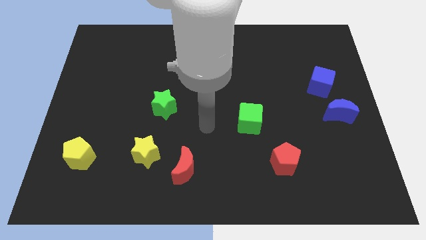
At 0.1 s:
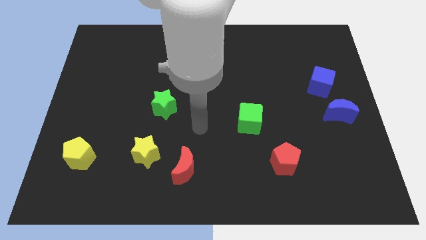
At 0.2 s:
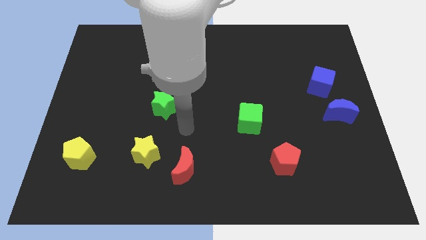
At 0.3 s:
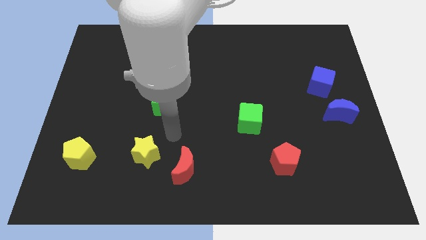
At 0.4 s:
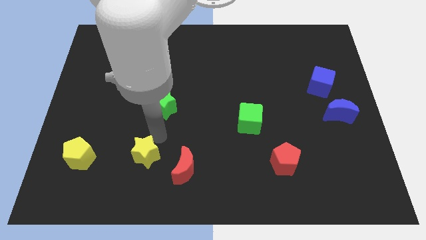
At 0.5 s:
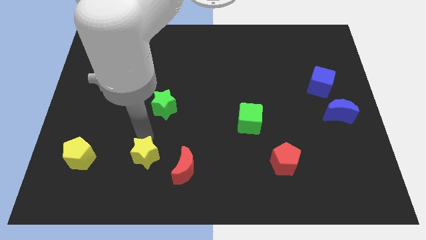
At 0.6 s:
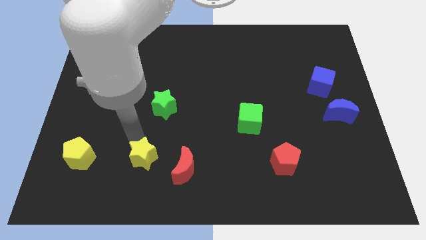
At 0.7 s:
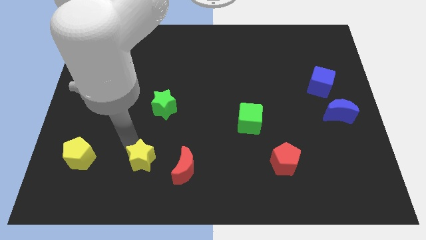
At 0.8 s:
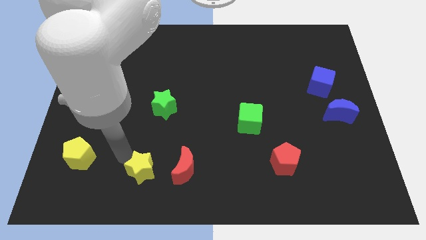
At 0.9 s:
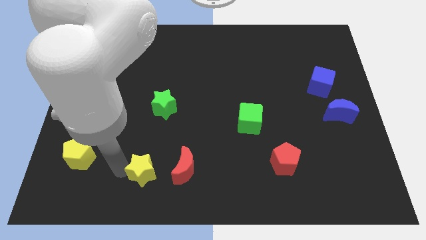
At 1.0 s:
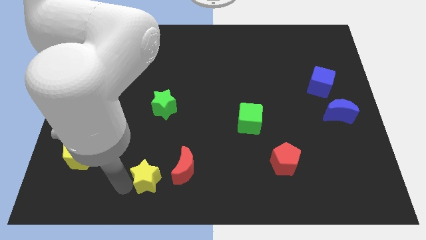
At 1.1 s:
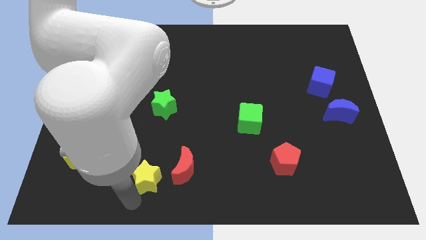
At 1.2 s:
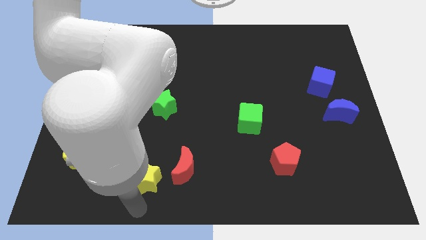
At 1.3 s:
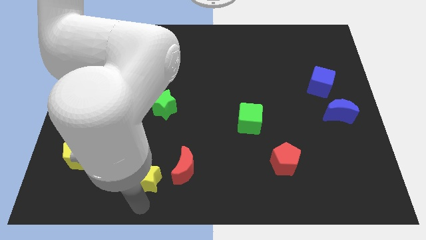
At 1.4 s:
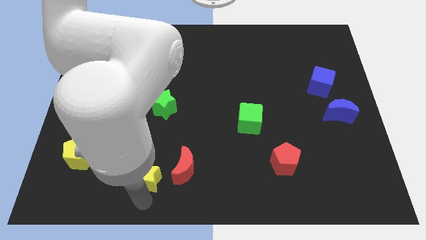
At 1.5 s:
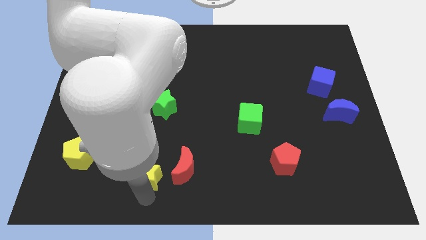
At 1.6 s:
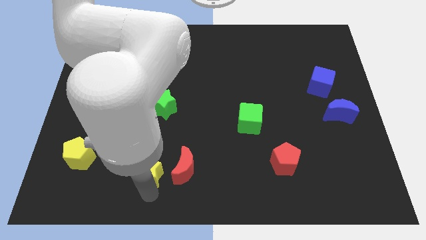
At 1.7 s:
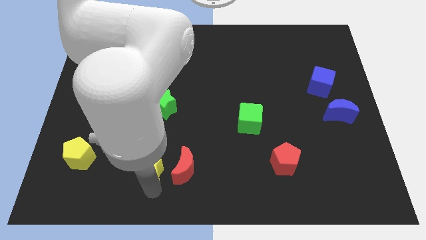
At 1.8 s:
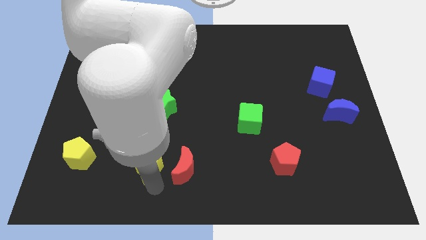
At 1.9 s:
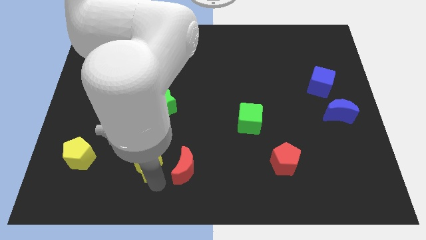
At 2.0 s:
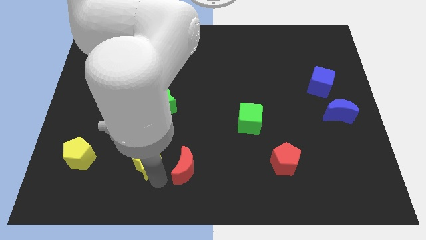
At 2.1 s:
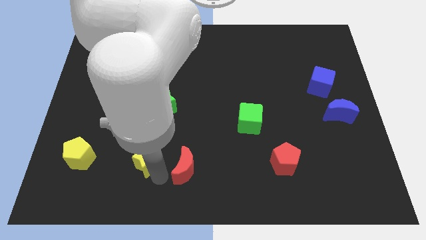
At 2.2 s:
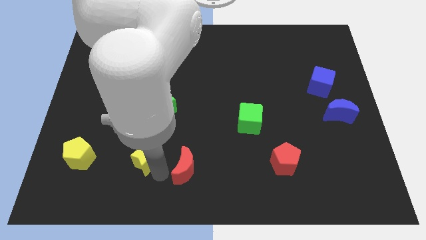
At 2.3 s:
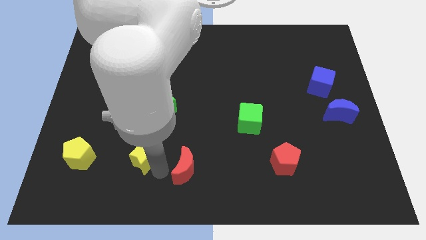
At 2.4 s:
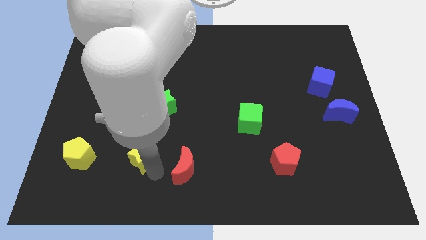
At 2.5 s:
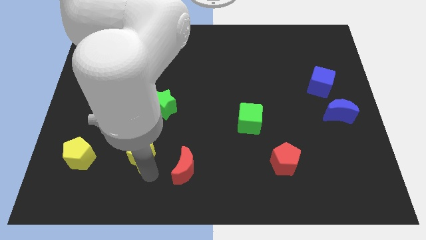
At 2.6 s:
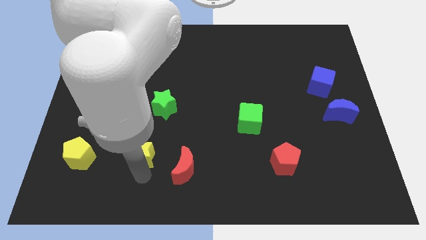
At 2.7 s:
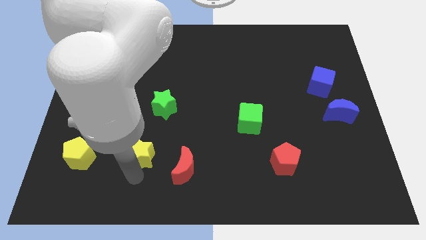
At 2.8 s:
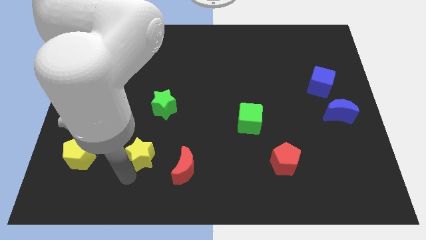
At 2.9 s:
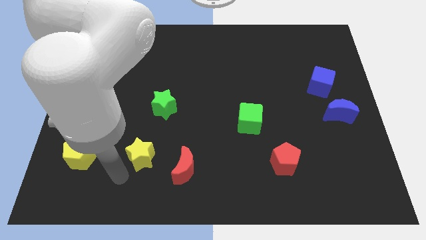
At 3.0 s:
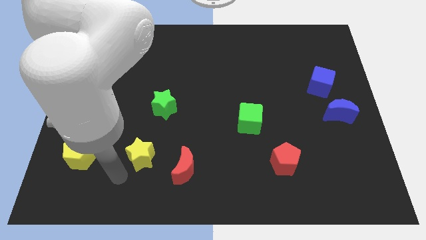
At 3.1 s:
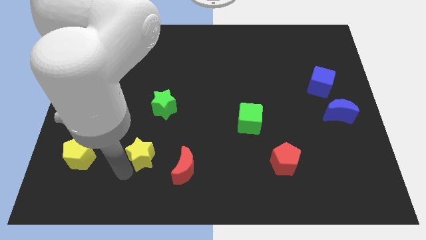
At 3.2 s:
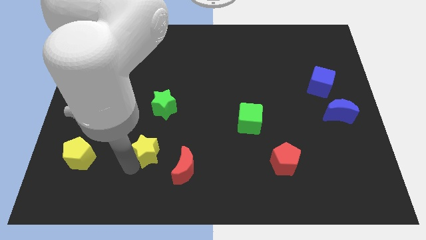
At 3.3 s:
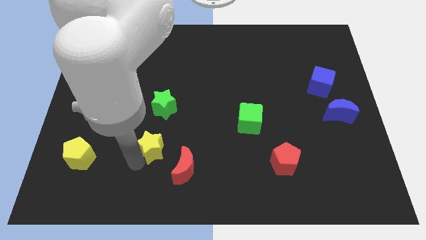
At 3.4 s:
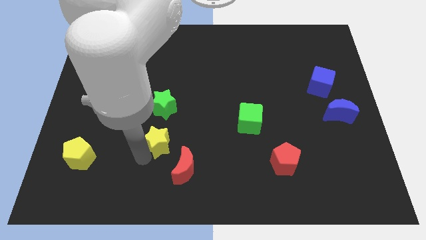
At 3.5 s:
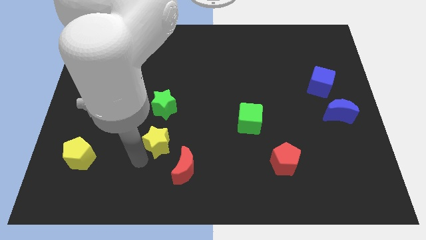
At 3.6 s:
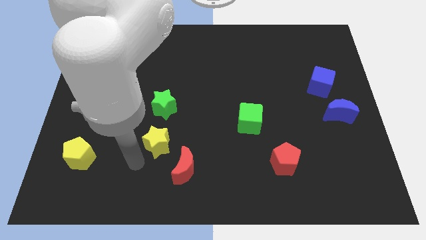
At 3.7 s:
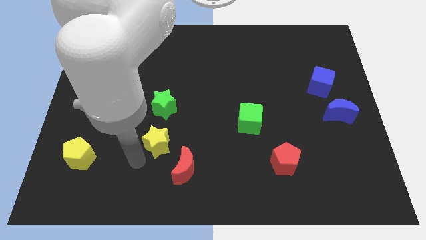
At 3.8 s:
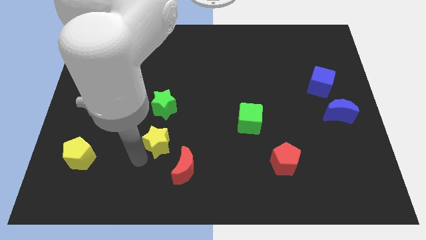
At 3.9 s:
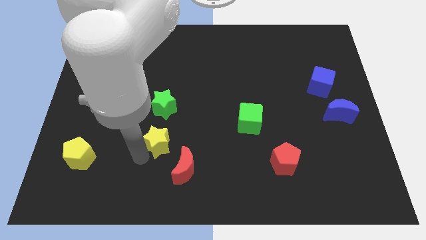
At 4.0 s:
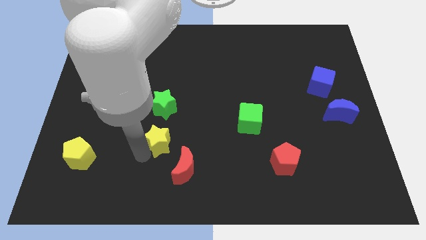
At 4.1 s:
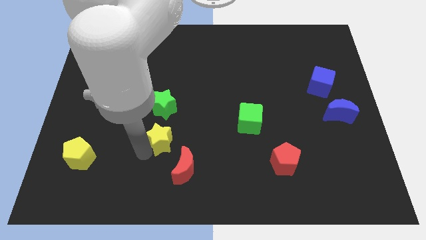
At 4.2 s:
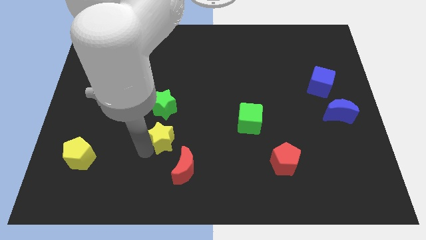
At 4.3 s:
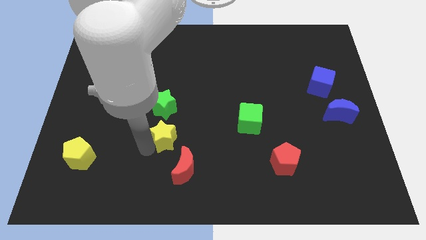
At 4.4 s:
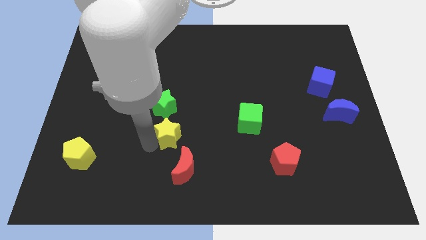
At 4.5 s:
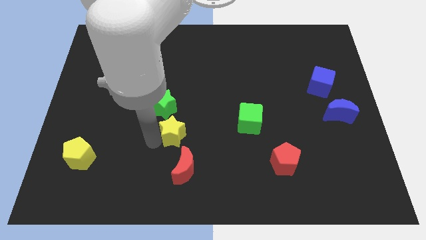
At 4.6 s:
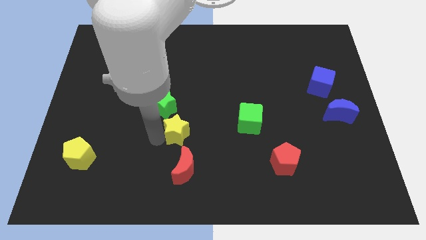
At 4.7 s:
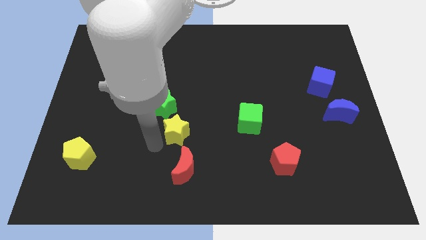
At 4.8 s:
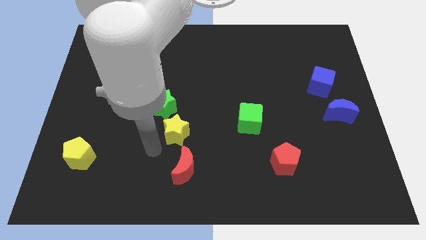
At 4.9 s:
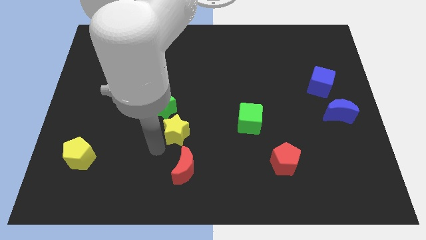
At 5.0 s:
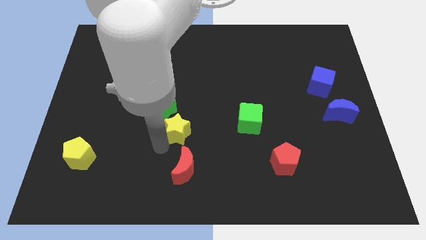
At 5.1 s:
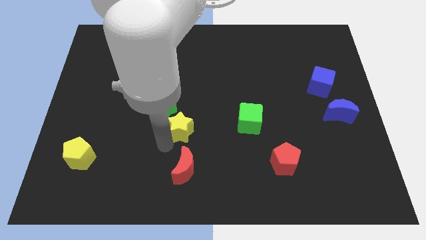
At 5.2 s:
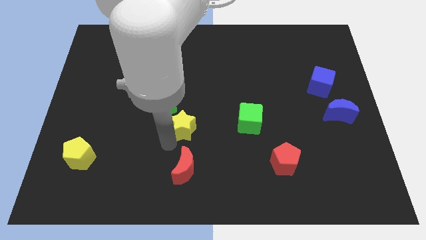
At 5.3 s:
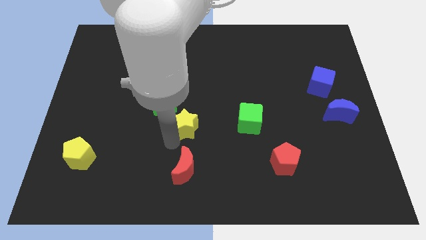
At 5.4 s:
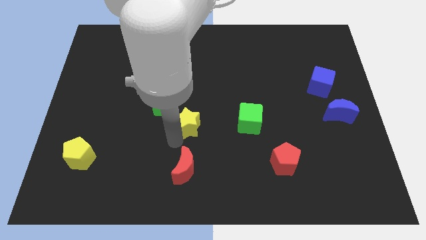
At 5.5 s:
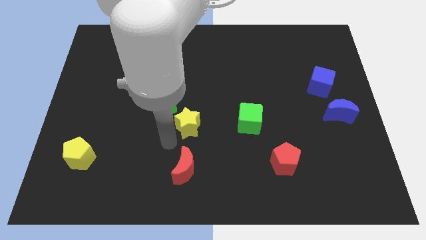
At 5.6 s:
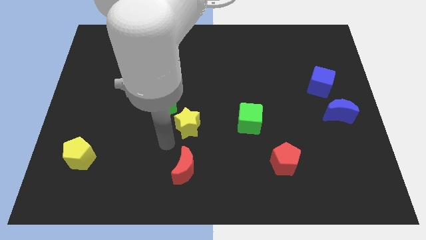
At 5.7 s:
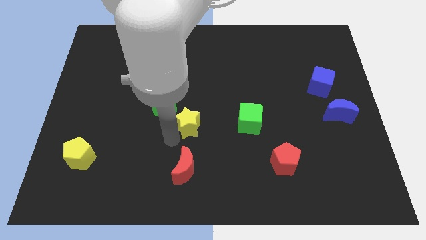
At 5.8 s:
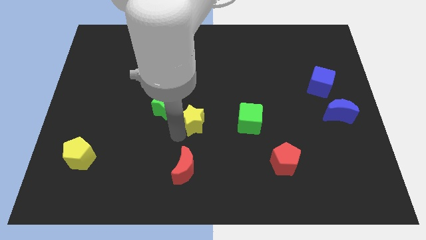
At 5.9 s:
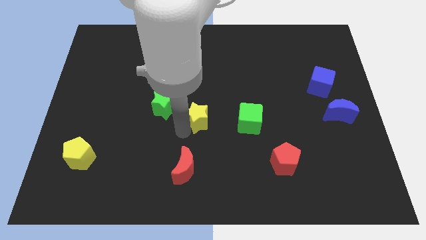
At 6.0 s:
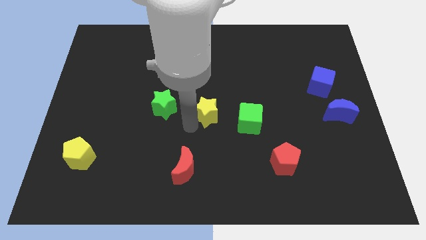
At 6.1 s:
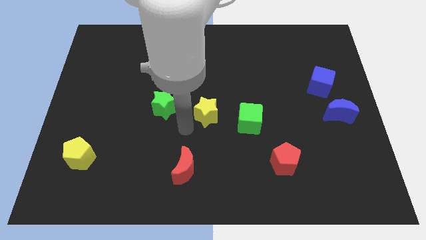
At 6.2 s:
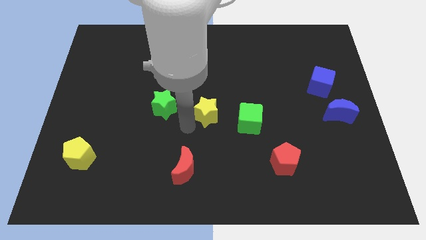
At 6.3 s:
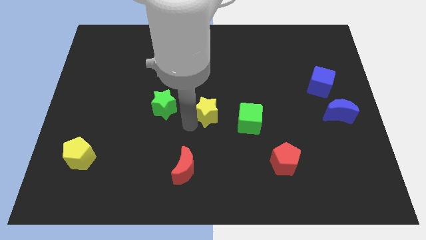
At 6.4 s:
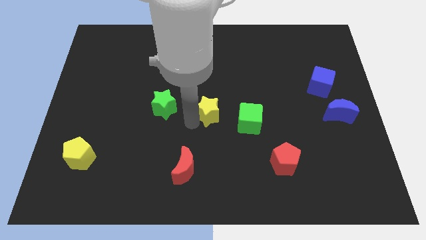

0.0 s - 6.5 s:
move the yellow star diagonally up and to the left of the green cube
